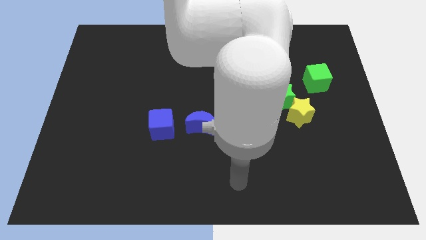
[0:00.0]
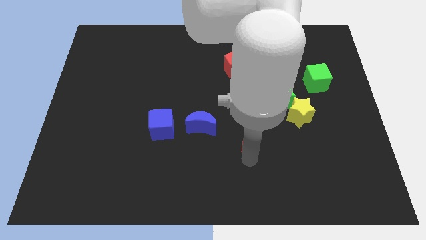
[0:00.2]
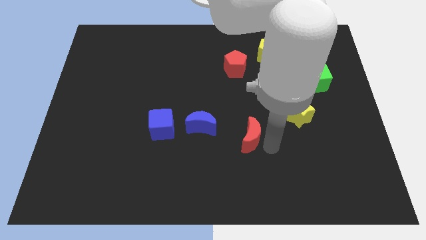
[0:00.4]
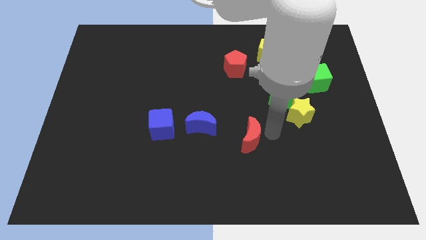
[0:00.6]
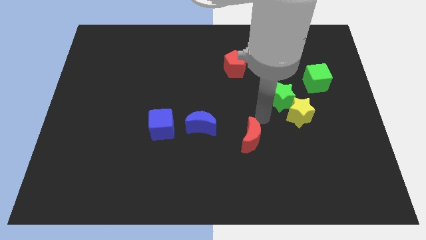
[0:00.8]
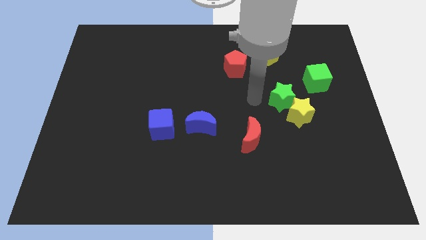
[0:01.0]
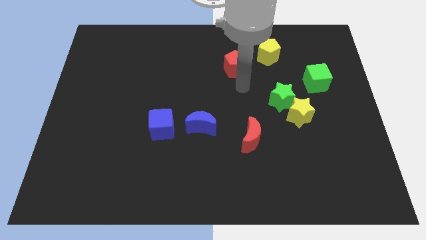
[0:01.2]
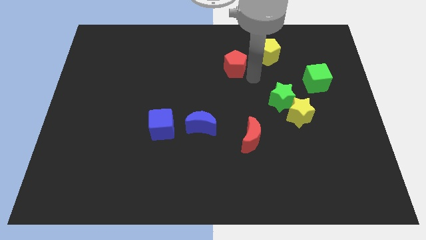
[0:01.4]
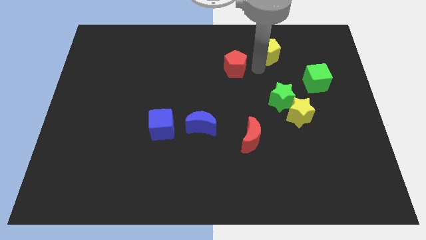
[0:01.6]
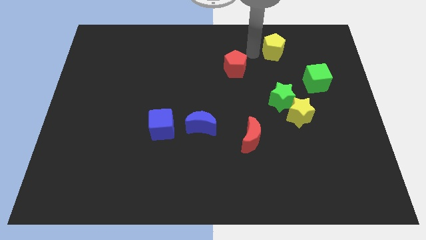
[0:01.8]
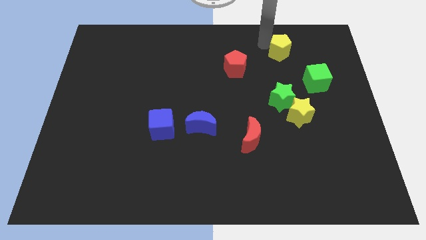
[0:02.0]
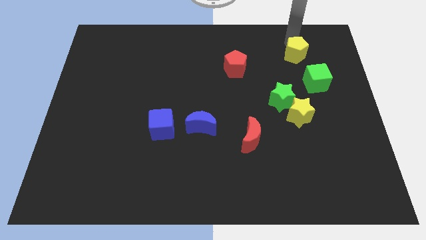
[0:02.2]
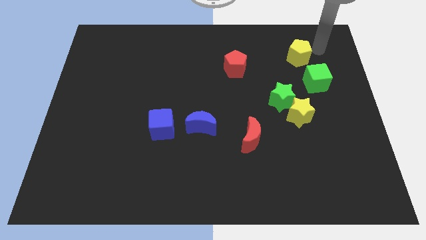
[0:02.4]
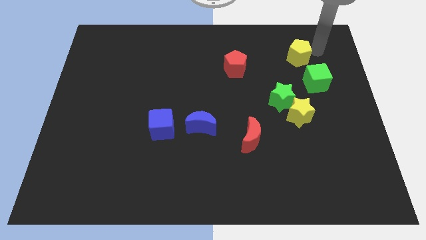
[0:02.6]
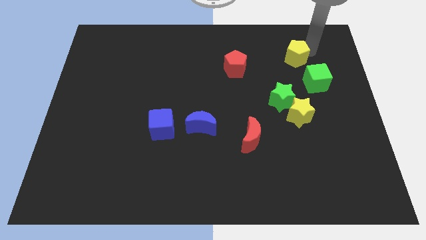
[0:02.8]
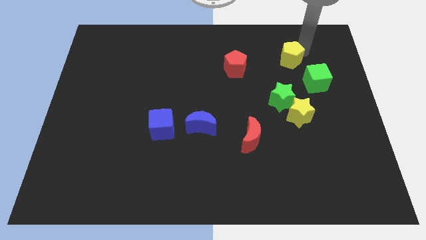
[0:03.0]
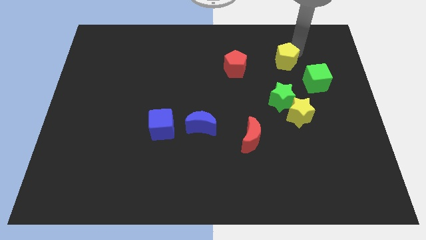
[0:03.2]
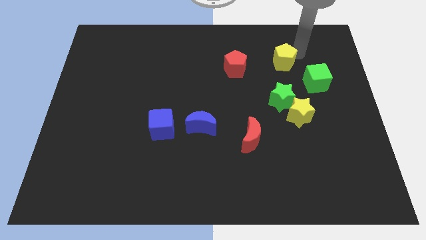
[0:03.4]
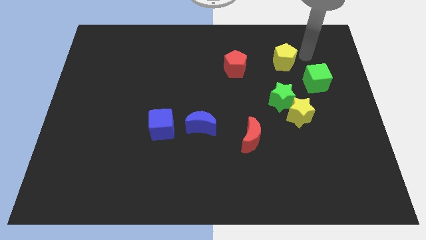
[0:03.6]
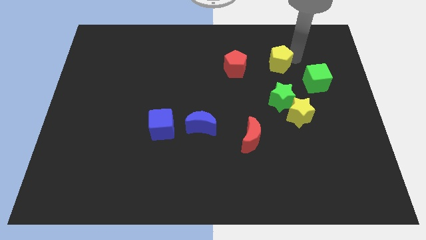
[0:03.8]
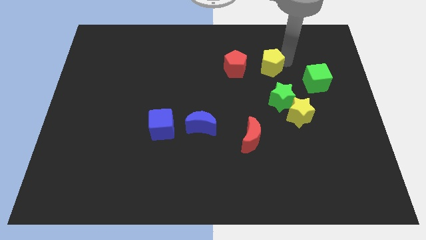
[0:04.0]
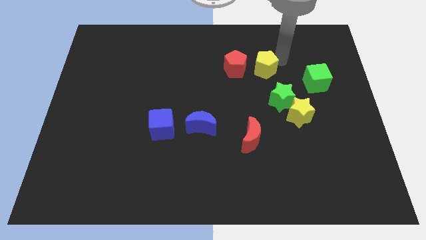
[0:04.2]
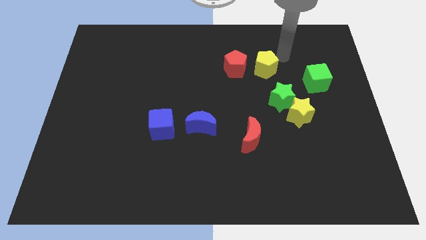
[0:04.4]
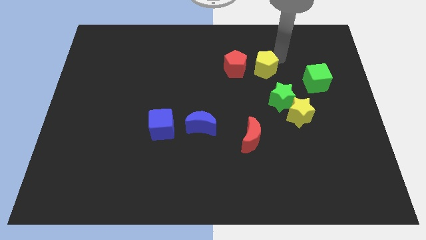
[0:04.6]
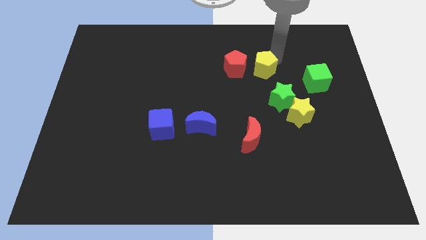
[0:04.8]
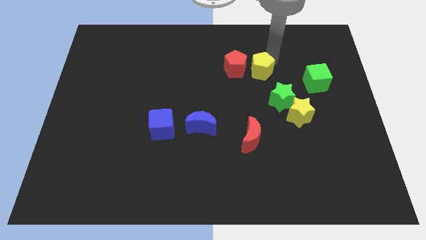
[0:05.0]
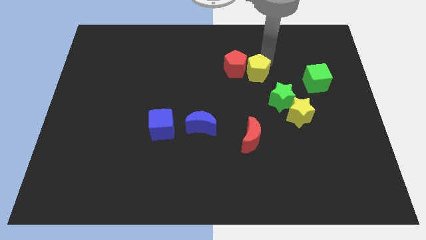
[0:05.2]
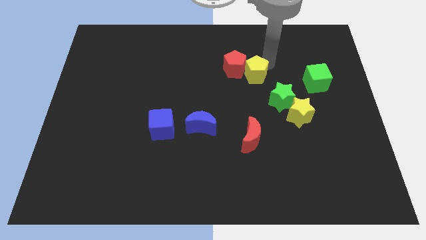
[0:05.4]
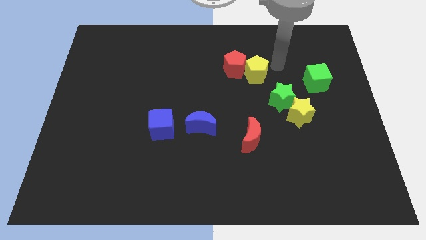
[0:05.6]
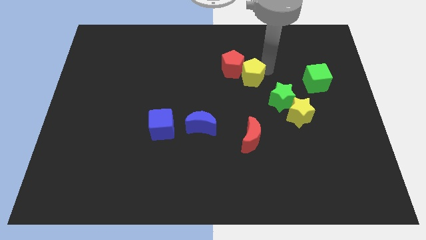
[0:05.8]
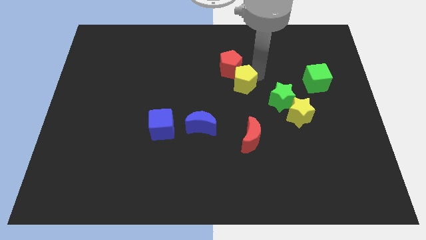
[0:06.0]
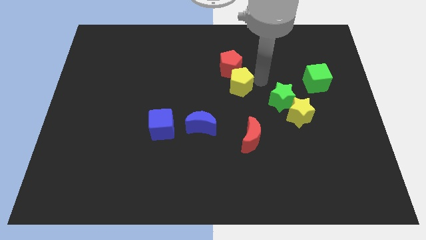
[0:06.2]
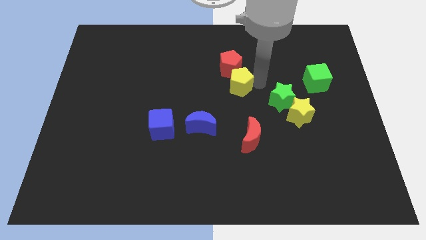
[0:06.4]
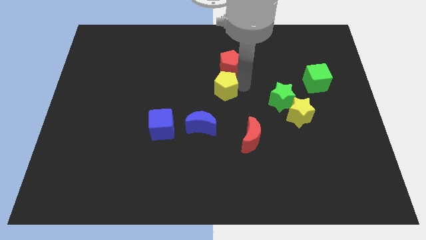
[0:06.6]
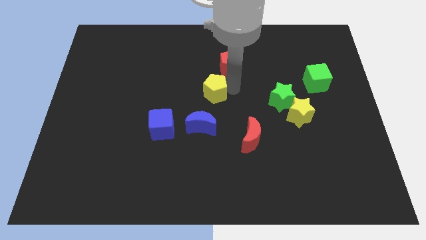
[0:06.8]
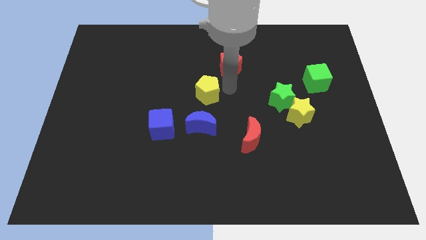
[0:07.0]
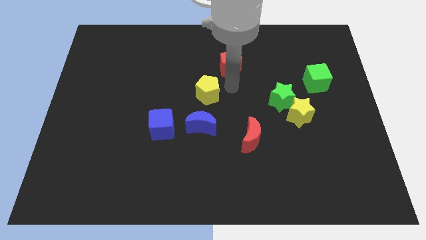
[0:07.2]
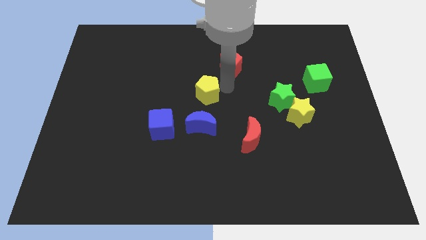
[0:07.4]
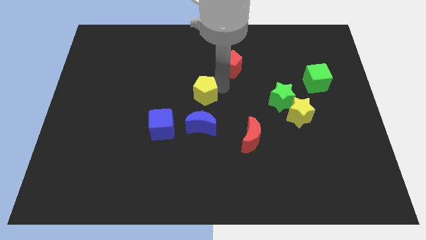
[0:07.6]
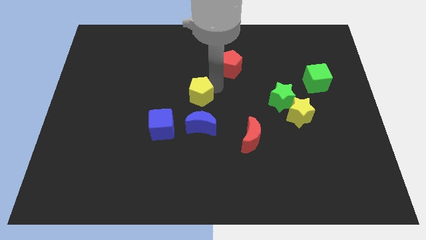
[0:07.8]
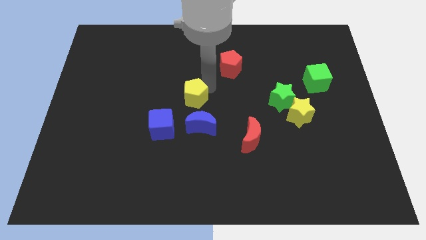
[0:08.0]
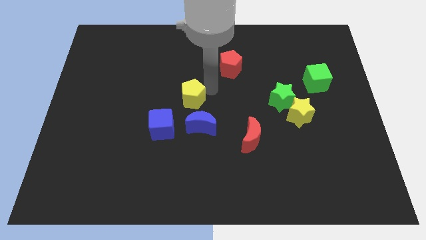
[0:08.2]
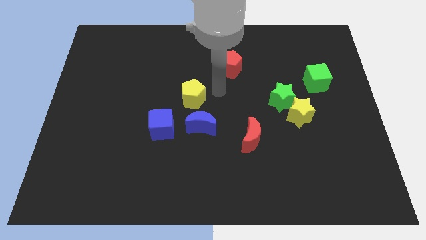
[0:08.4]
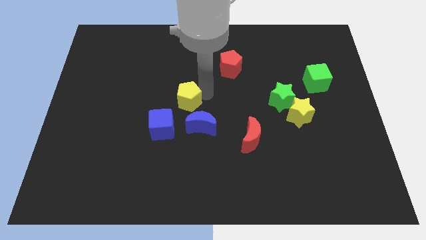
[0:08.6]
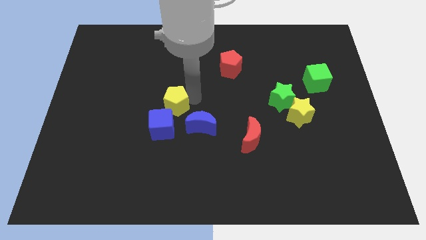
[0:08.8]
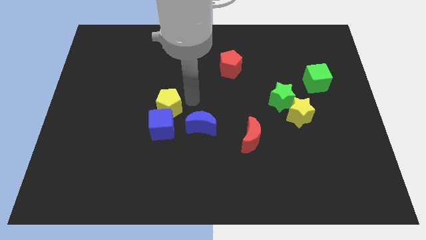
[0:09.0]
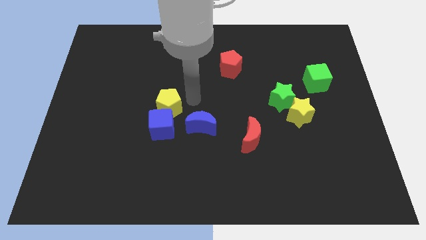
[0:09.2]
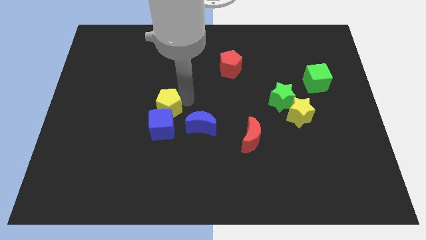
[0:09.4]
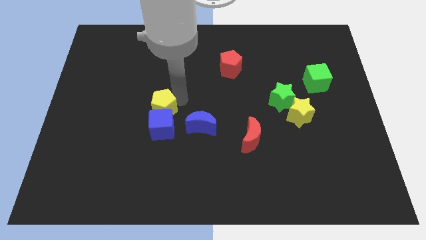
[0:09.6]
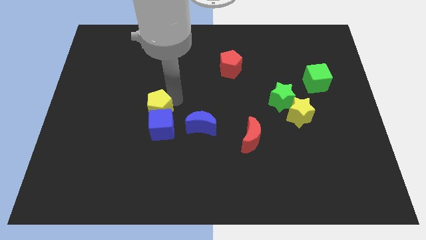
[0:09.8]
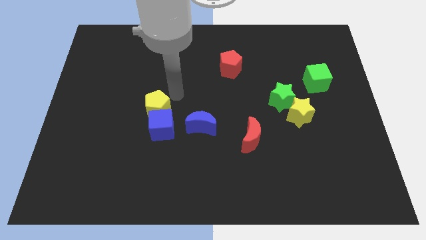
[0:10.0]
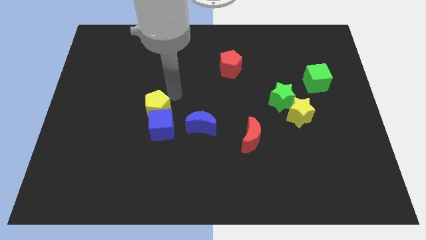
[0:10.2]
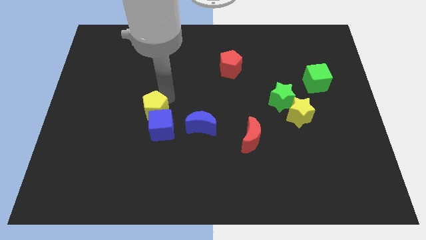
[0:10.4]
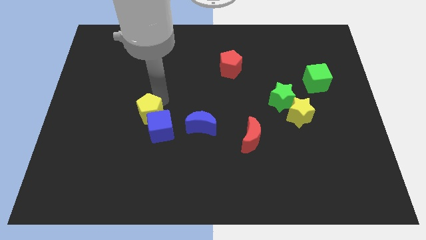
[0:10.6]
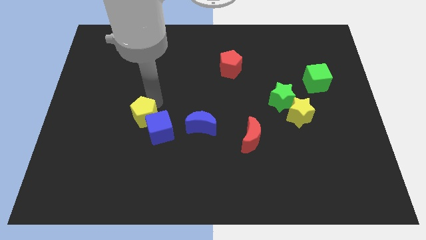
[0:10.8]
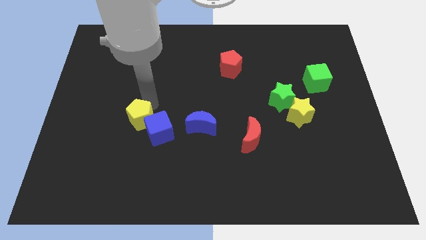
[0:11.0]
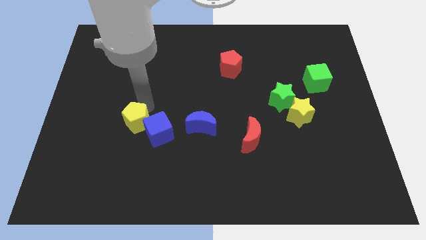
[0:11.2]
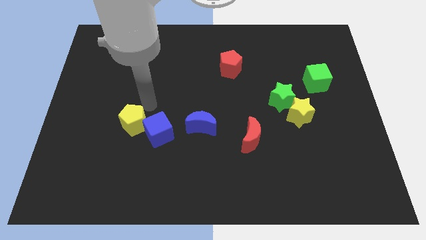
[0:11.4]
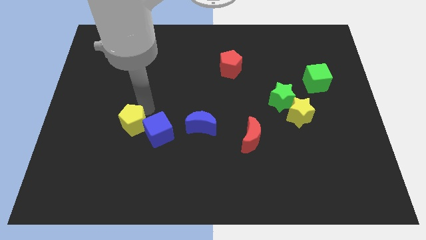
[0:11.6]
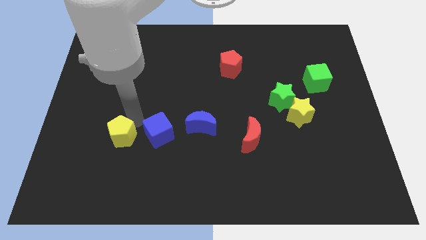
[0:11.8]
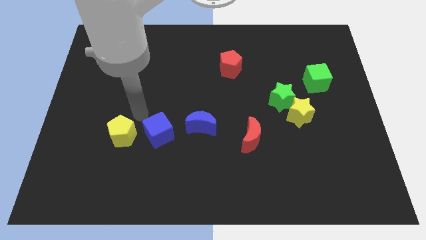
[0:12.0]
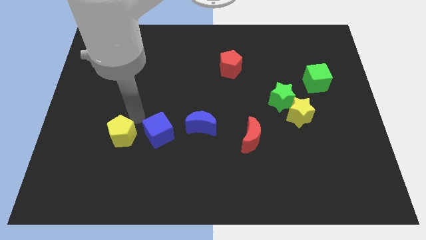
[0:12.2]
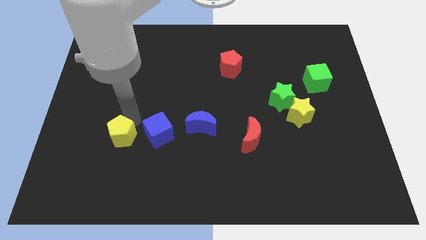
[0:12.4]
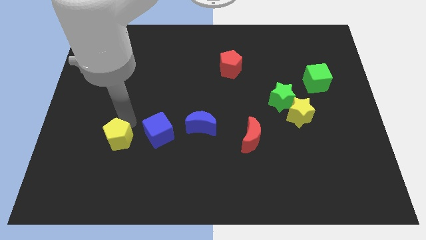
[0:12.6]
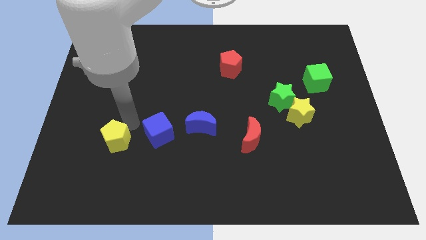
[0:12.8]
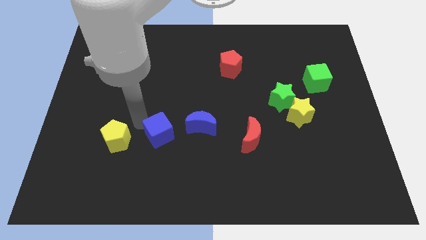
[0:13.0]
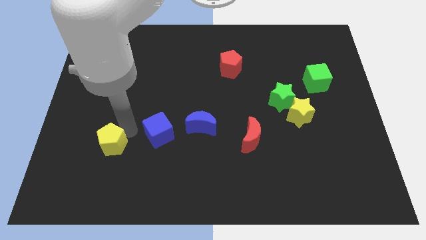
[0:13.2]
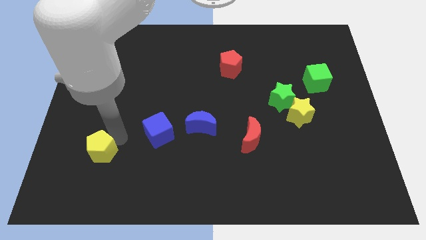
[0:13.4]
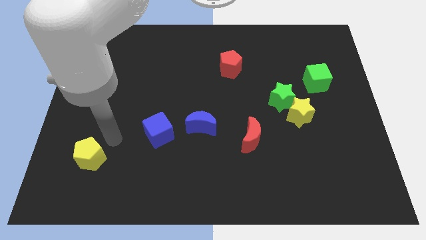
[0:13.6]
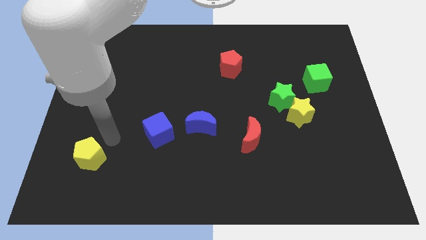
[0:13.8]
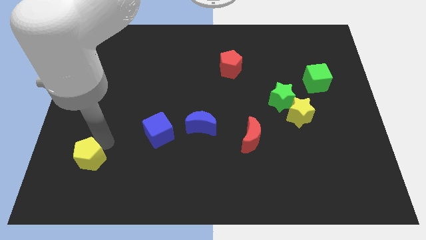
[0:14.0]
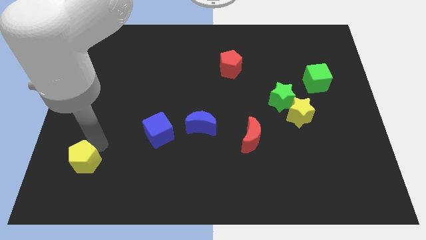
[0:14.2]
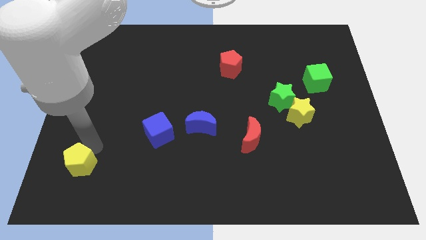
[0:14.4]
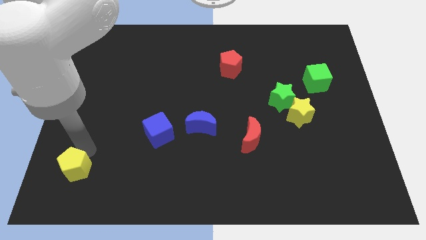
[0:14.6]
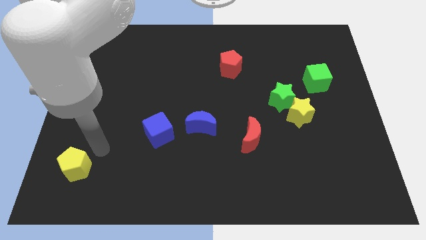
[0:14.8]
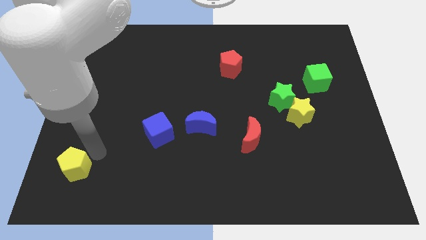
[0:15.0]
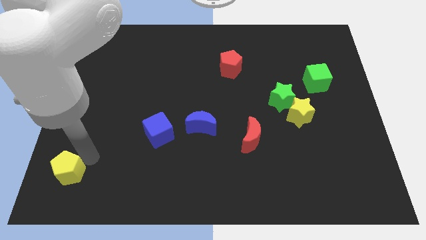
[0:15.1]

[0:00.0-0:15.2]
put the yellow pentagon to the bottom left
